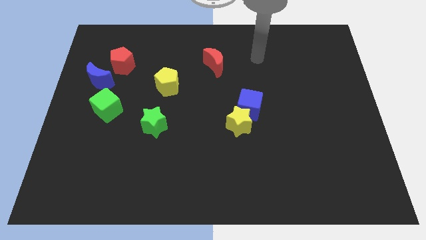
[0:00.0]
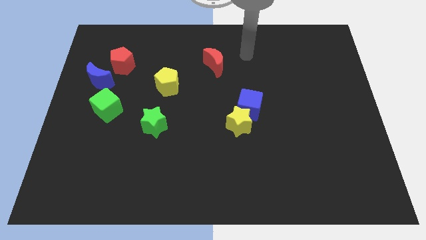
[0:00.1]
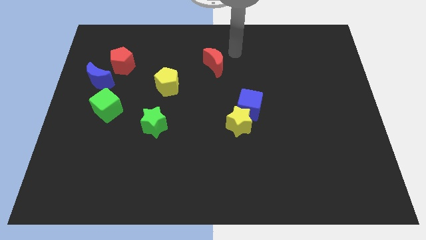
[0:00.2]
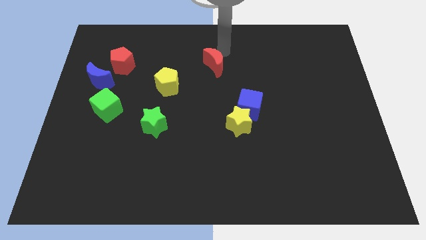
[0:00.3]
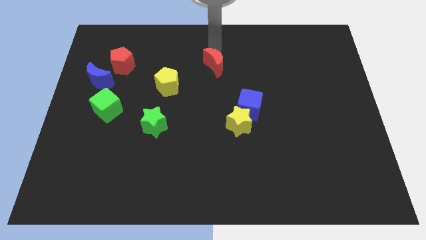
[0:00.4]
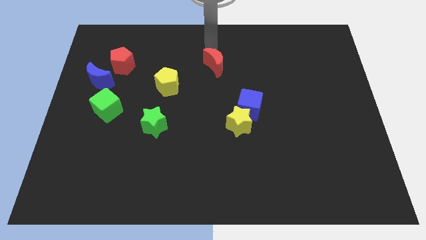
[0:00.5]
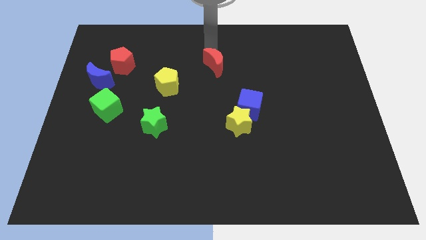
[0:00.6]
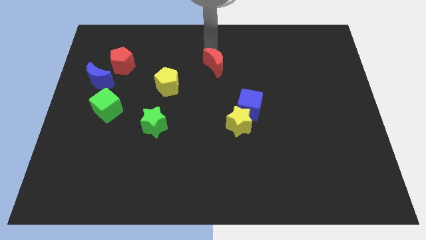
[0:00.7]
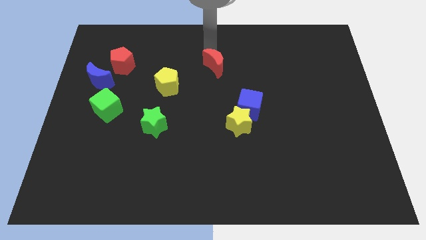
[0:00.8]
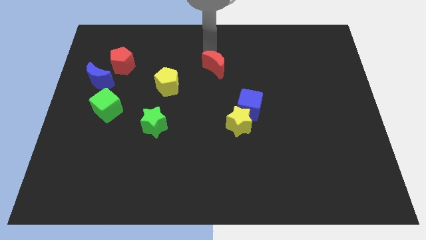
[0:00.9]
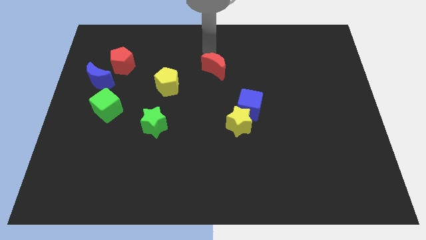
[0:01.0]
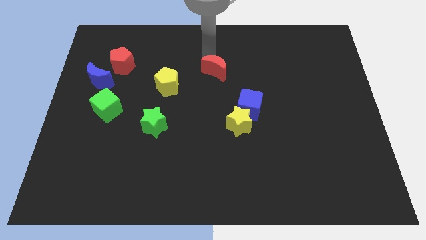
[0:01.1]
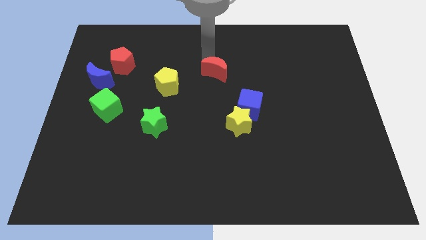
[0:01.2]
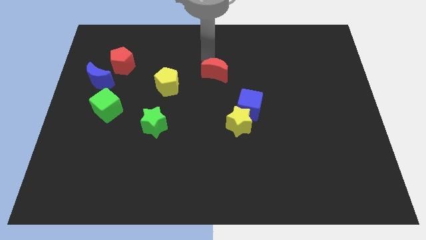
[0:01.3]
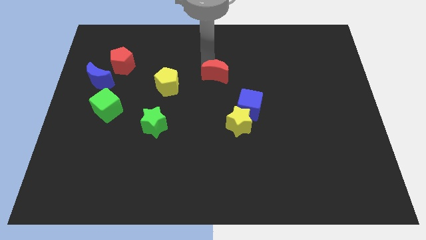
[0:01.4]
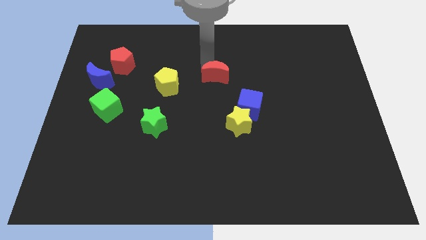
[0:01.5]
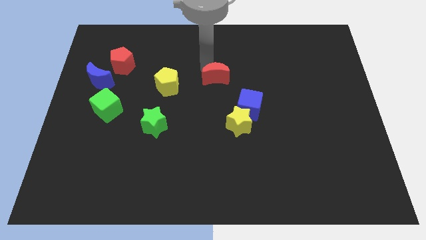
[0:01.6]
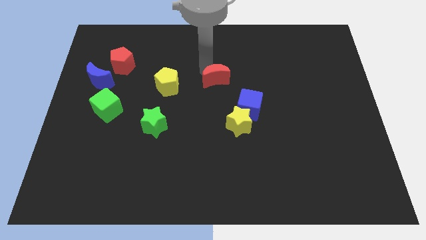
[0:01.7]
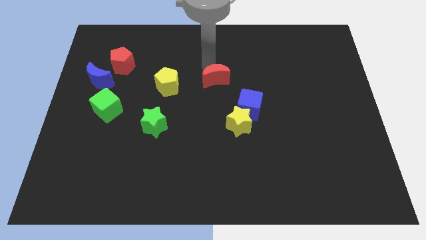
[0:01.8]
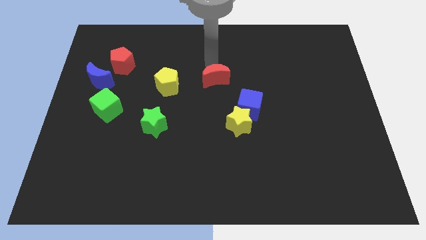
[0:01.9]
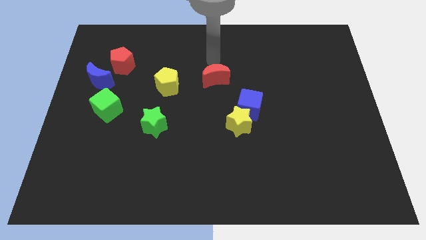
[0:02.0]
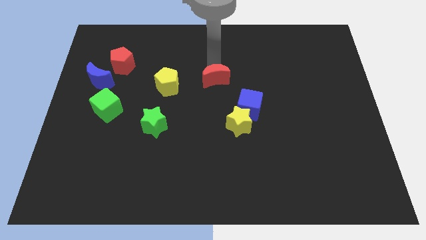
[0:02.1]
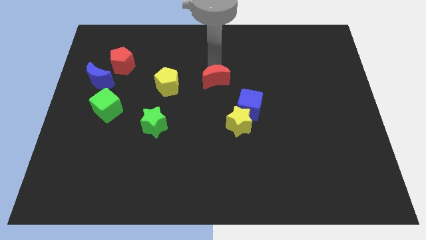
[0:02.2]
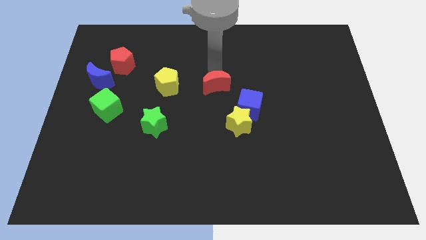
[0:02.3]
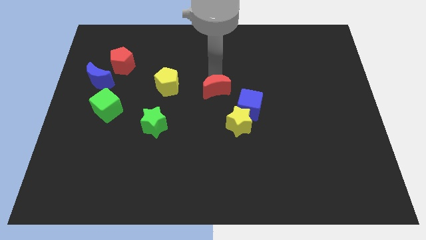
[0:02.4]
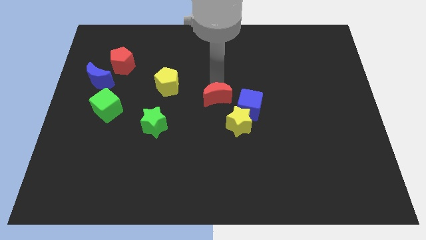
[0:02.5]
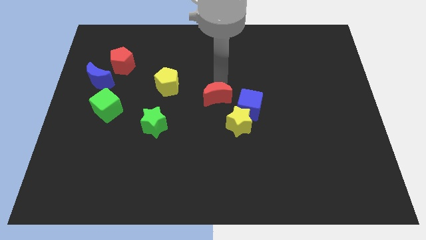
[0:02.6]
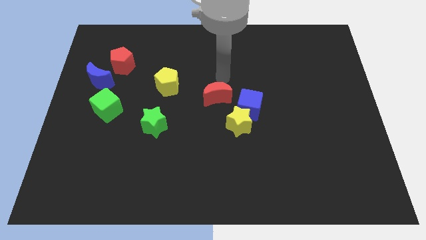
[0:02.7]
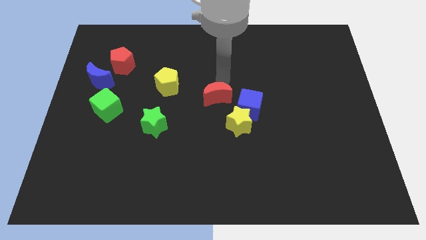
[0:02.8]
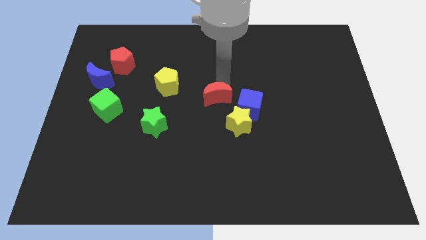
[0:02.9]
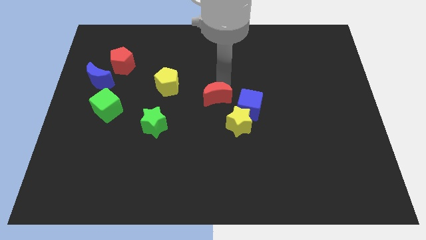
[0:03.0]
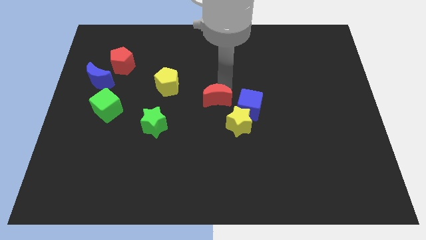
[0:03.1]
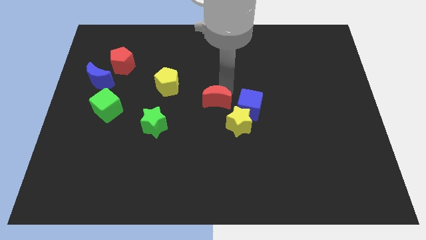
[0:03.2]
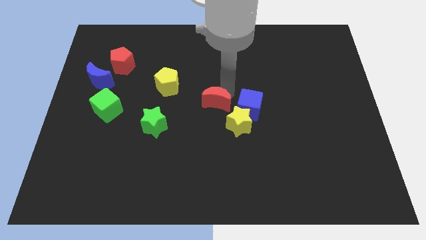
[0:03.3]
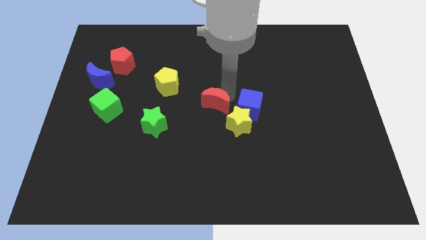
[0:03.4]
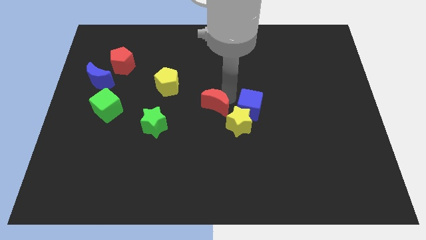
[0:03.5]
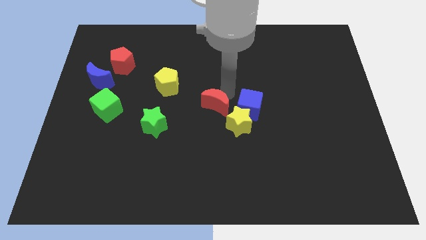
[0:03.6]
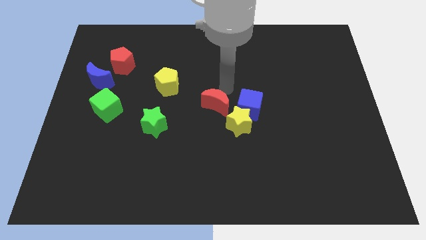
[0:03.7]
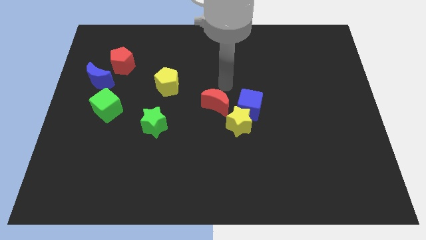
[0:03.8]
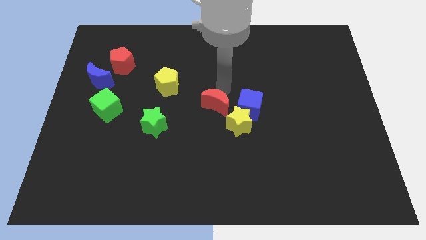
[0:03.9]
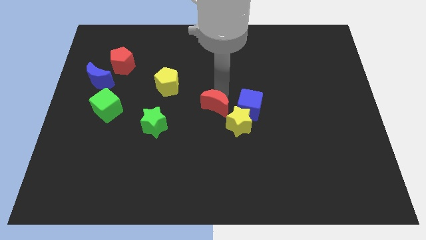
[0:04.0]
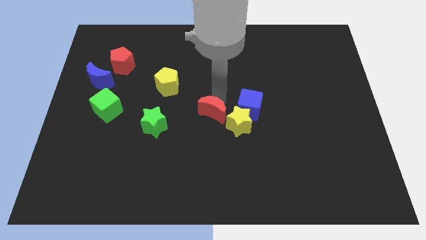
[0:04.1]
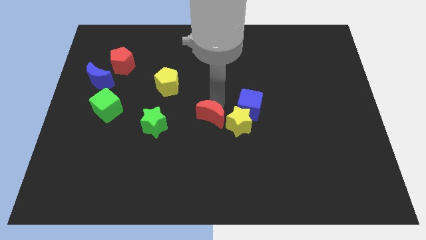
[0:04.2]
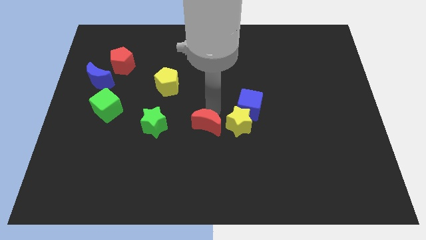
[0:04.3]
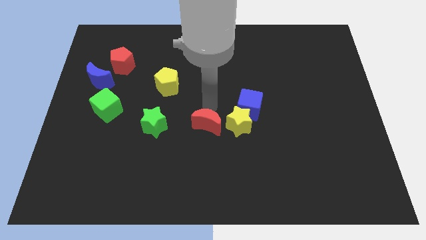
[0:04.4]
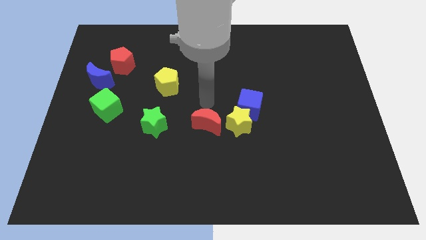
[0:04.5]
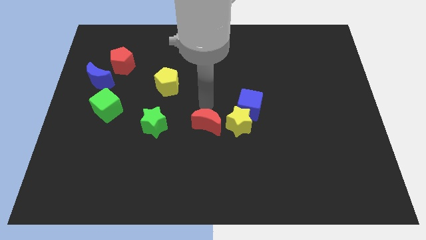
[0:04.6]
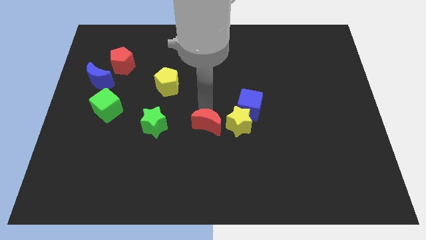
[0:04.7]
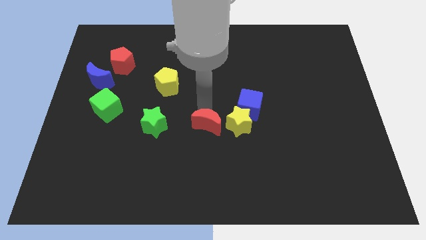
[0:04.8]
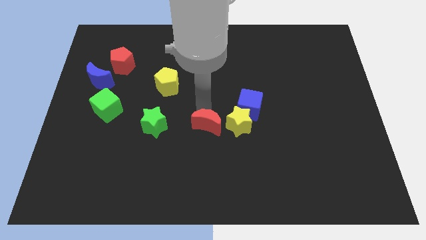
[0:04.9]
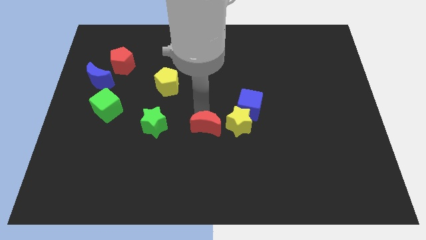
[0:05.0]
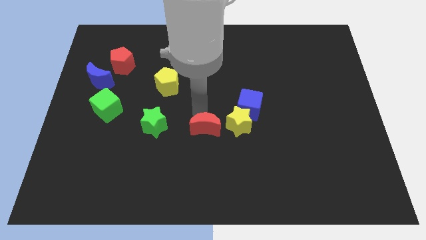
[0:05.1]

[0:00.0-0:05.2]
push the red moon downwards

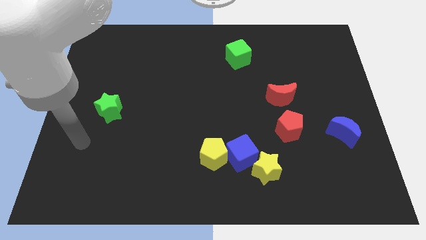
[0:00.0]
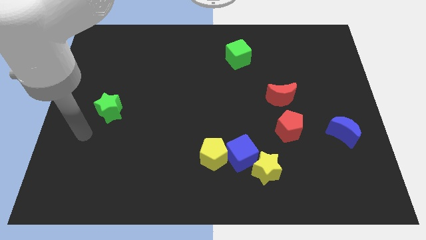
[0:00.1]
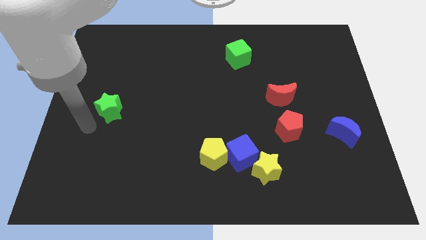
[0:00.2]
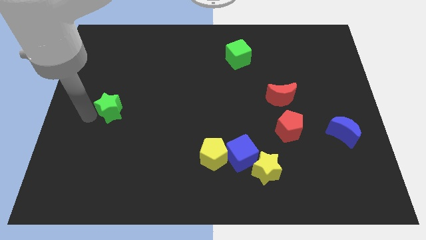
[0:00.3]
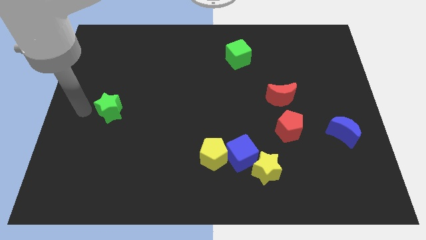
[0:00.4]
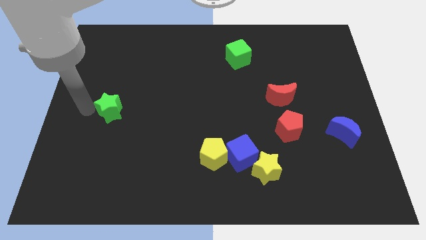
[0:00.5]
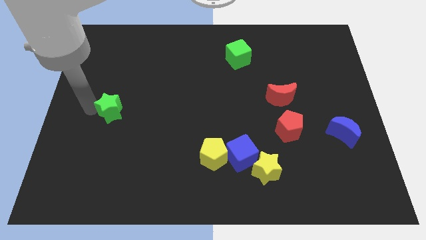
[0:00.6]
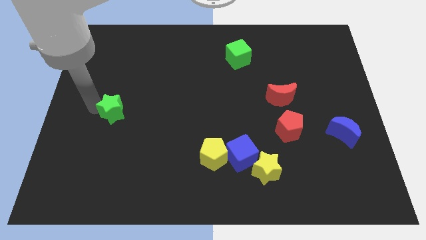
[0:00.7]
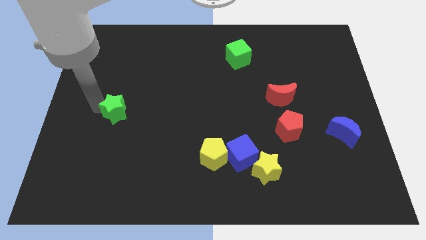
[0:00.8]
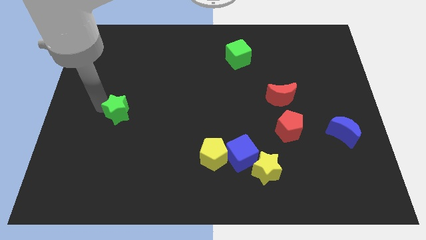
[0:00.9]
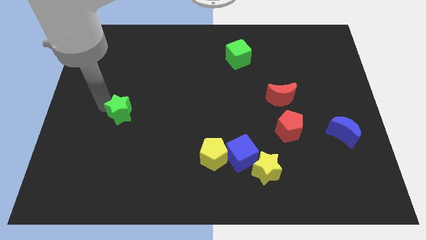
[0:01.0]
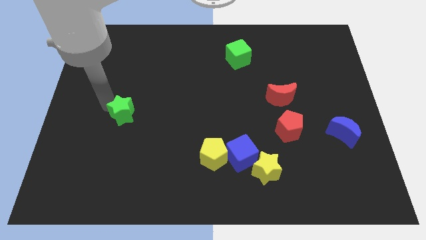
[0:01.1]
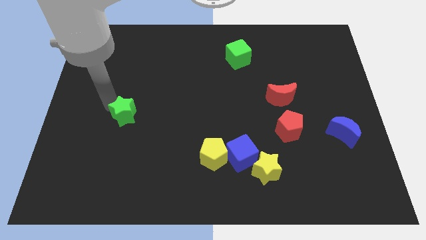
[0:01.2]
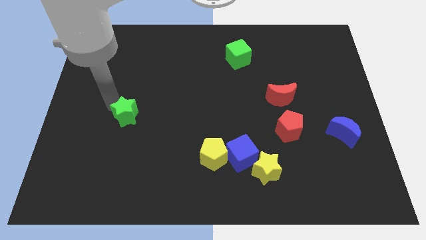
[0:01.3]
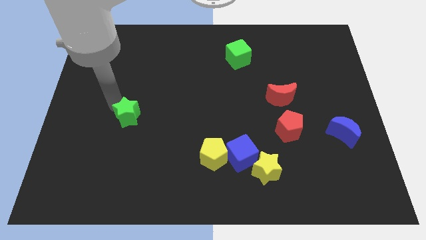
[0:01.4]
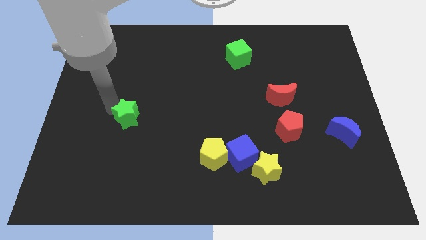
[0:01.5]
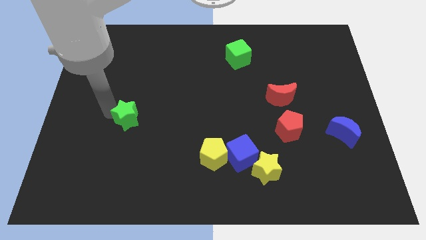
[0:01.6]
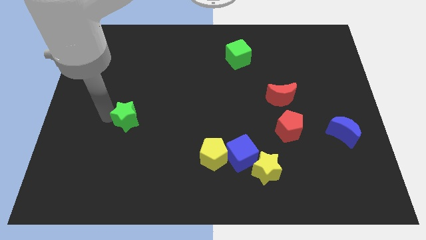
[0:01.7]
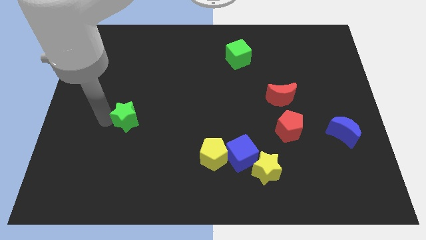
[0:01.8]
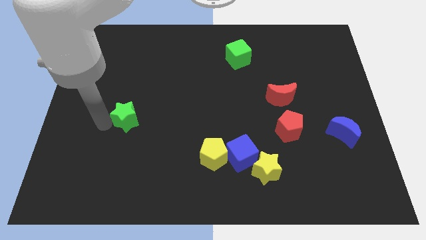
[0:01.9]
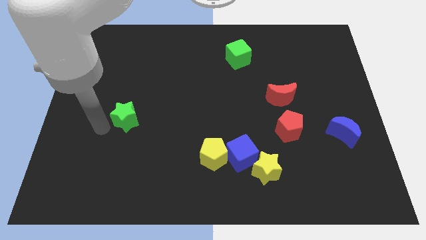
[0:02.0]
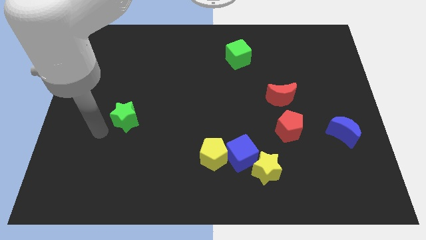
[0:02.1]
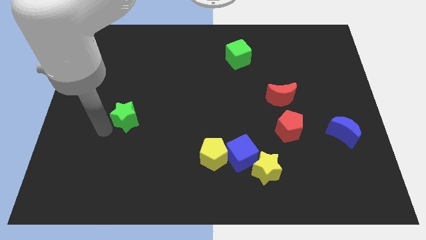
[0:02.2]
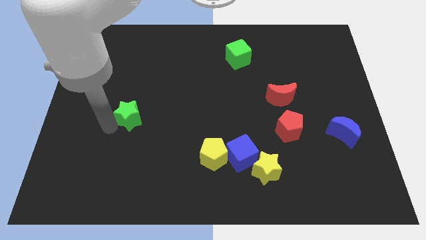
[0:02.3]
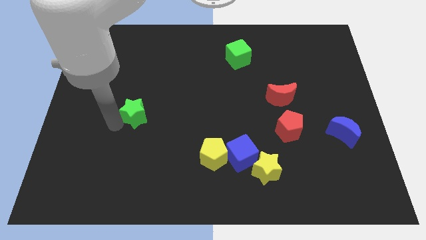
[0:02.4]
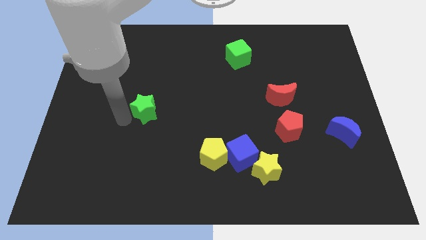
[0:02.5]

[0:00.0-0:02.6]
slightly push the green star to the right

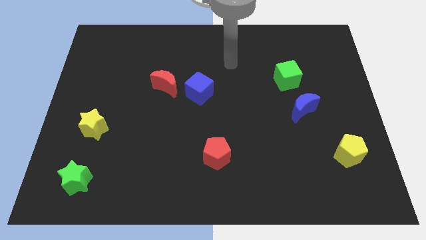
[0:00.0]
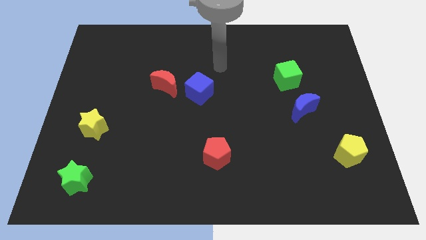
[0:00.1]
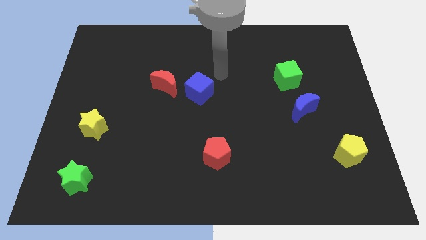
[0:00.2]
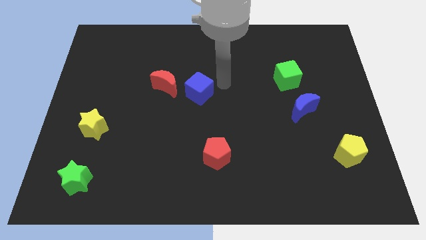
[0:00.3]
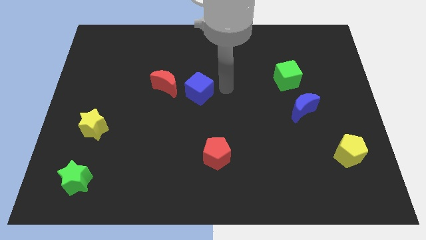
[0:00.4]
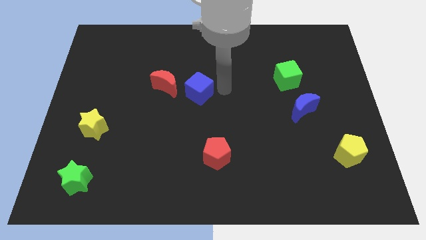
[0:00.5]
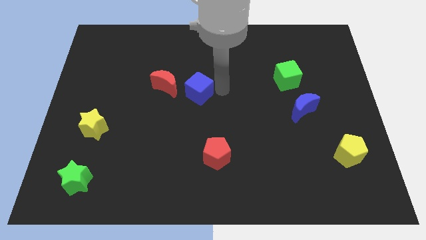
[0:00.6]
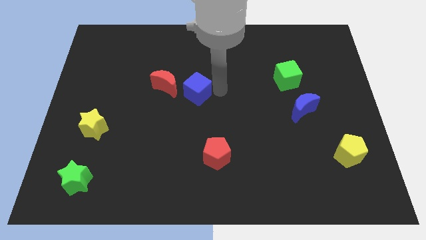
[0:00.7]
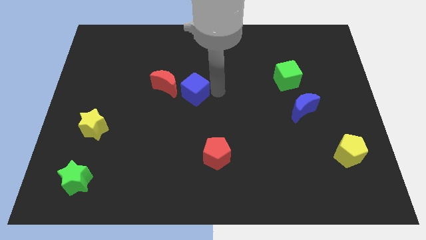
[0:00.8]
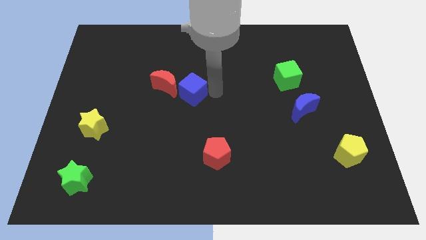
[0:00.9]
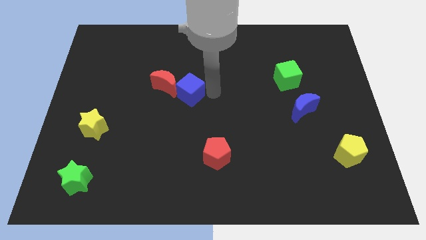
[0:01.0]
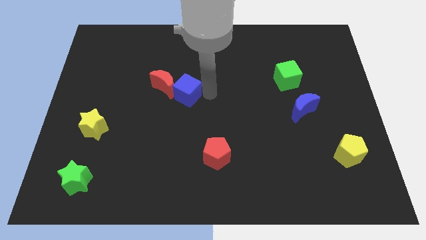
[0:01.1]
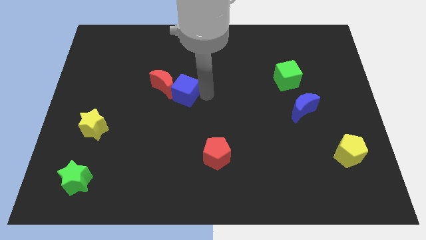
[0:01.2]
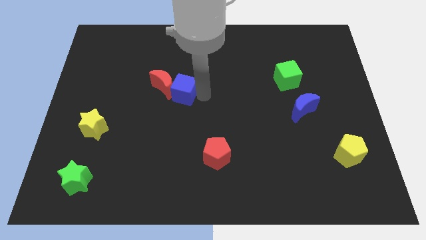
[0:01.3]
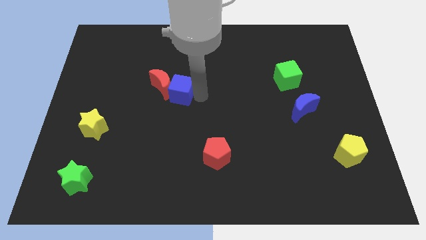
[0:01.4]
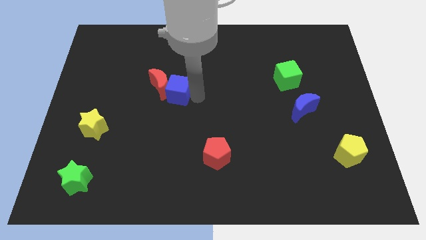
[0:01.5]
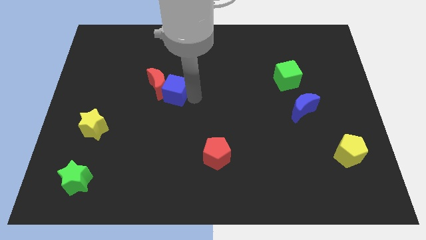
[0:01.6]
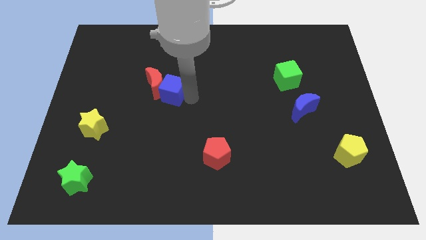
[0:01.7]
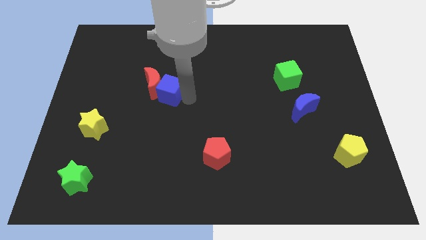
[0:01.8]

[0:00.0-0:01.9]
move the blue cube left a bit
